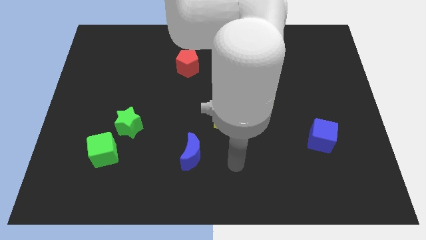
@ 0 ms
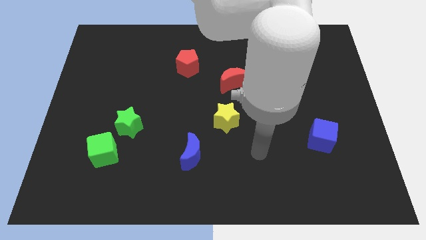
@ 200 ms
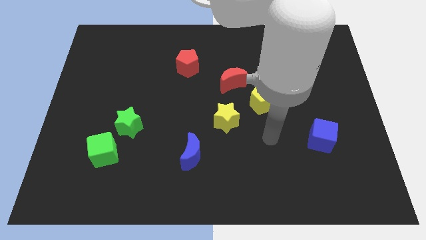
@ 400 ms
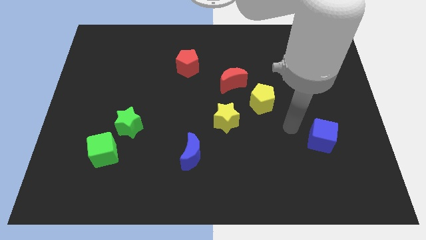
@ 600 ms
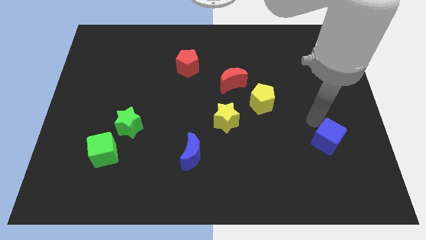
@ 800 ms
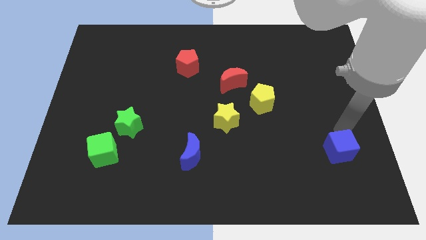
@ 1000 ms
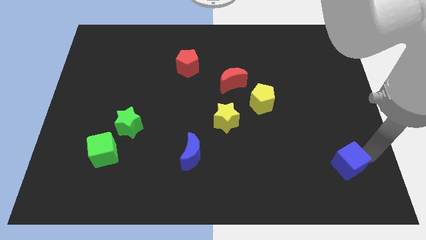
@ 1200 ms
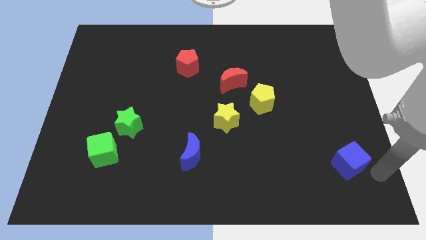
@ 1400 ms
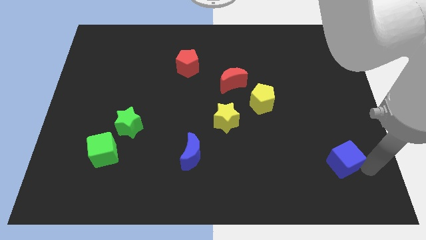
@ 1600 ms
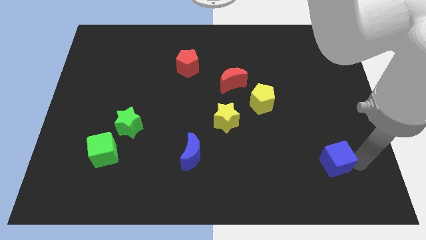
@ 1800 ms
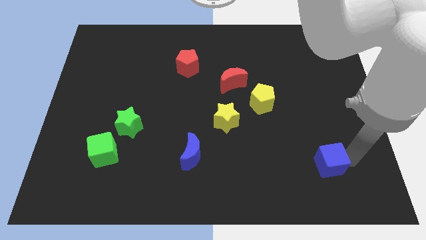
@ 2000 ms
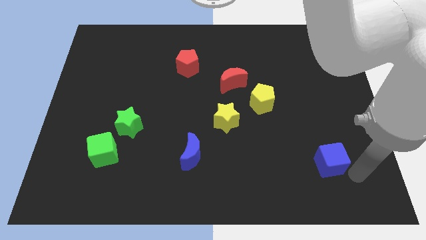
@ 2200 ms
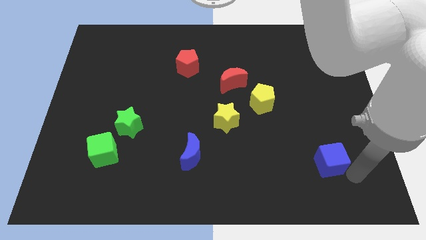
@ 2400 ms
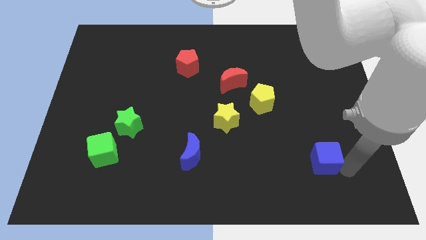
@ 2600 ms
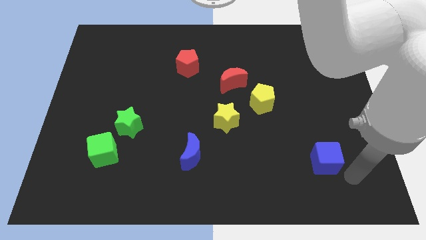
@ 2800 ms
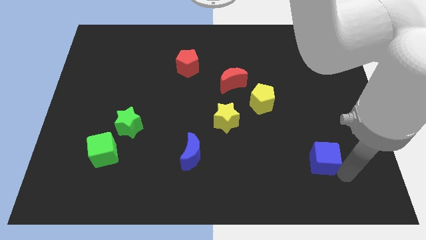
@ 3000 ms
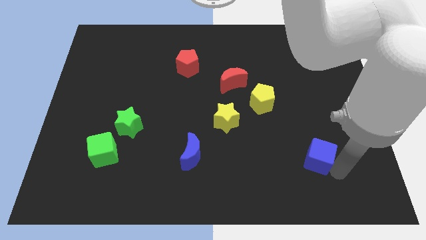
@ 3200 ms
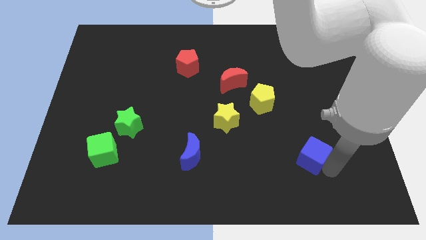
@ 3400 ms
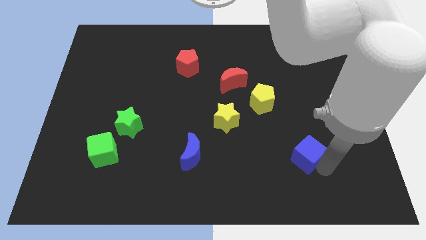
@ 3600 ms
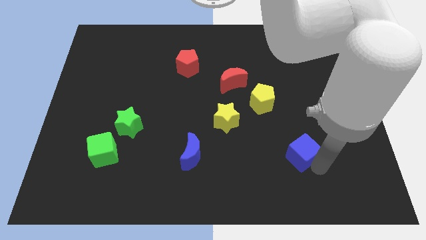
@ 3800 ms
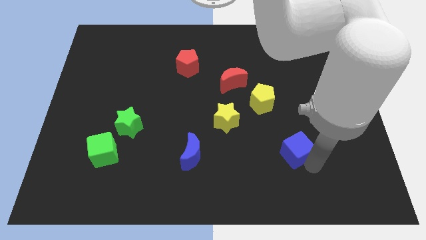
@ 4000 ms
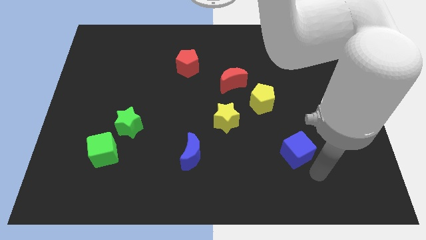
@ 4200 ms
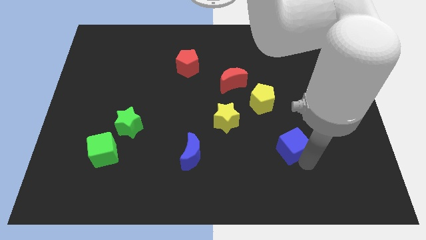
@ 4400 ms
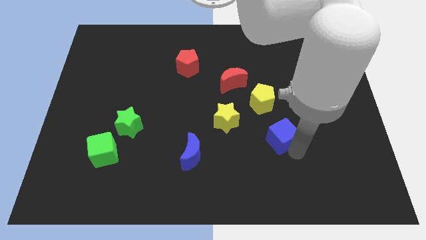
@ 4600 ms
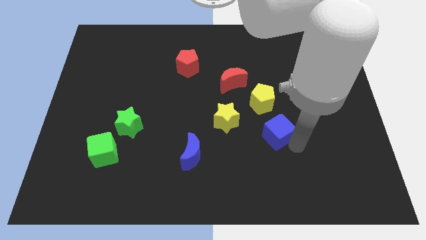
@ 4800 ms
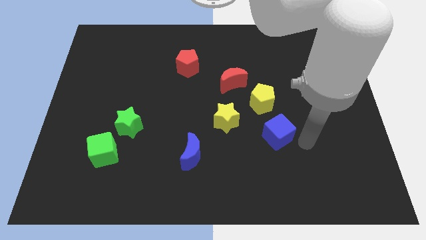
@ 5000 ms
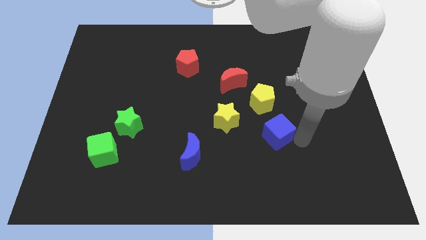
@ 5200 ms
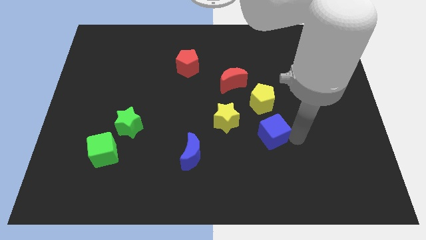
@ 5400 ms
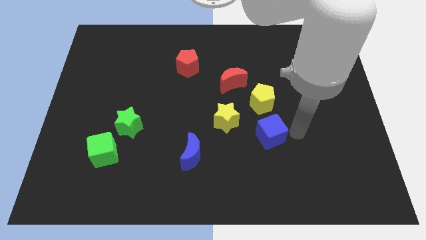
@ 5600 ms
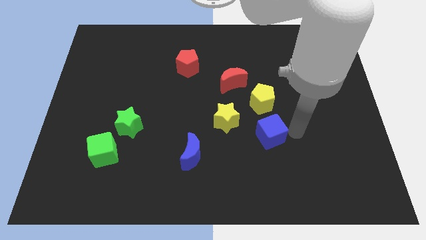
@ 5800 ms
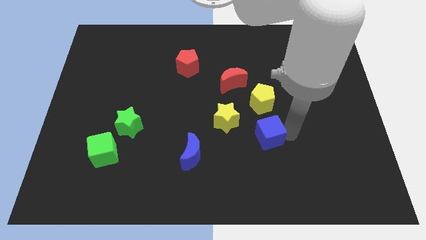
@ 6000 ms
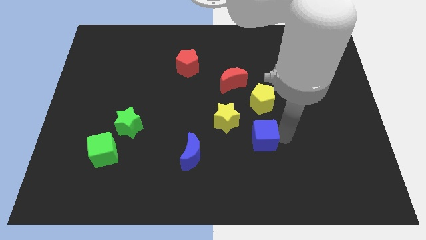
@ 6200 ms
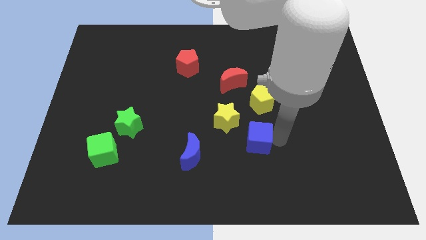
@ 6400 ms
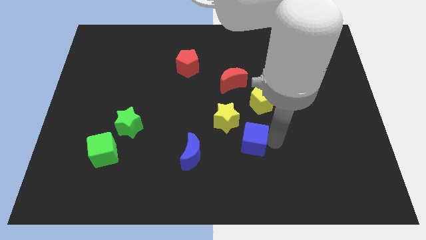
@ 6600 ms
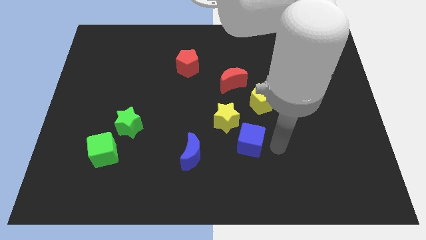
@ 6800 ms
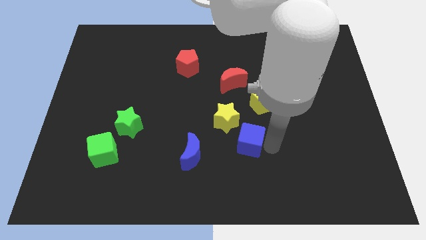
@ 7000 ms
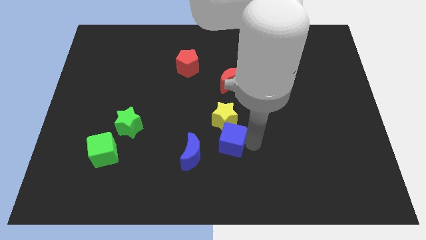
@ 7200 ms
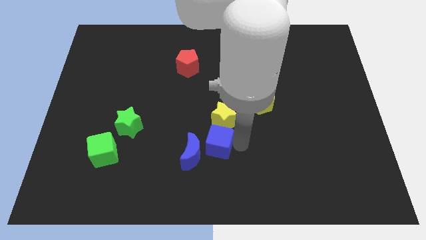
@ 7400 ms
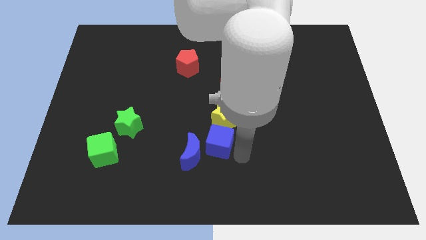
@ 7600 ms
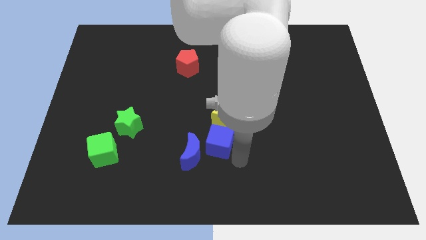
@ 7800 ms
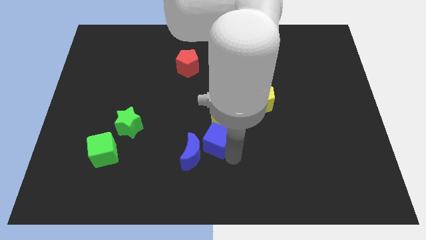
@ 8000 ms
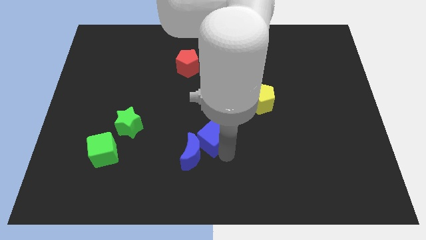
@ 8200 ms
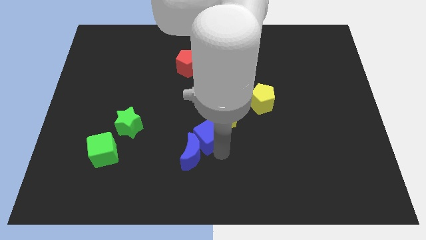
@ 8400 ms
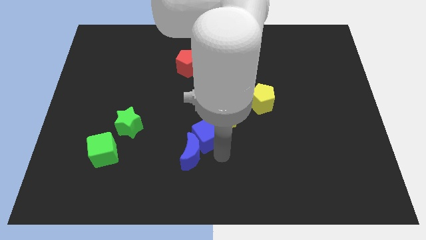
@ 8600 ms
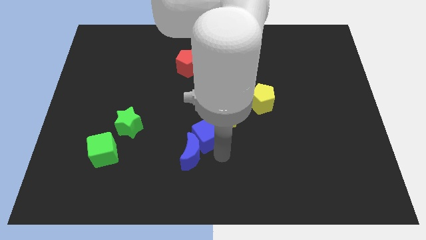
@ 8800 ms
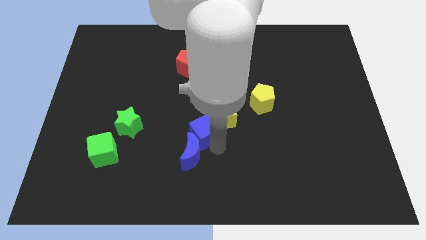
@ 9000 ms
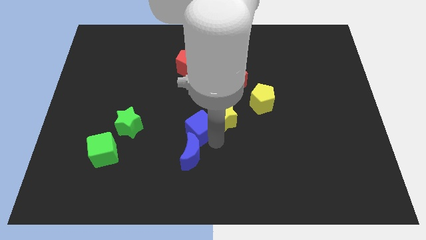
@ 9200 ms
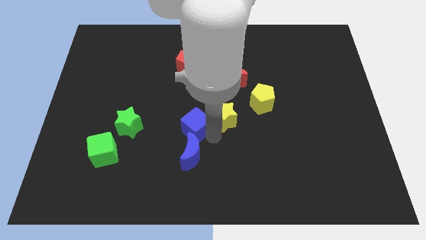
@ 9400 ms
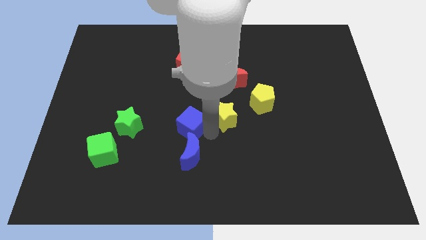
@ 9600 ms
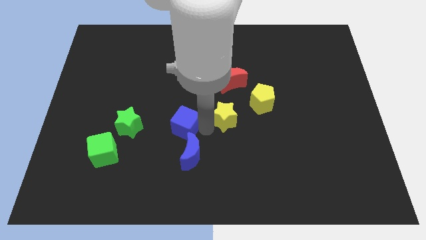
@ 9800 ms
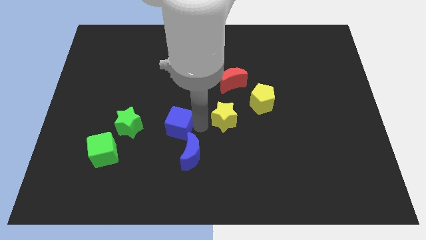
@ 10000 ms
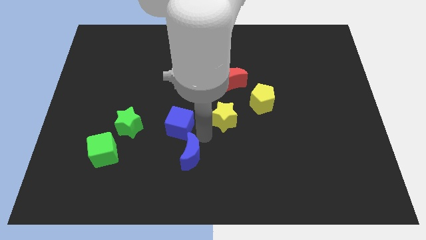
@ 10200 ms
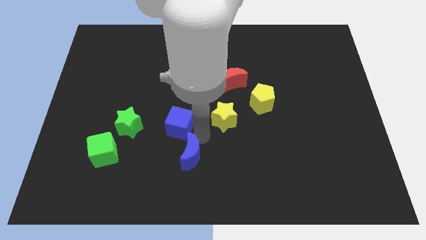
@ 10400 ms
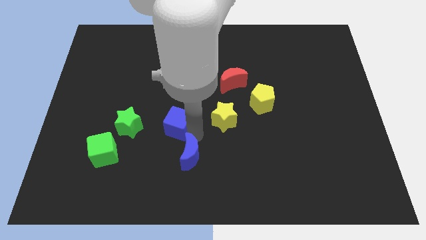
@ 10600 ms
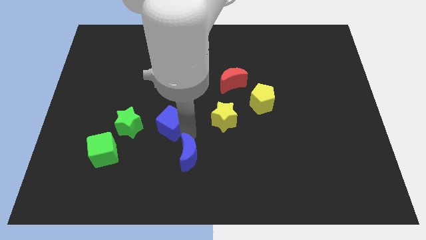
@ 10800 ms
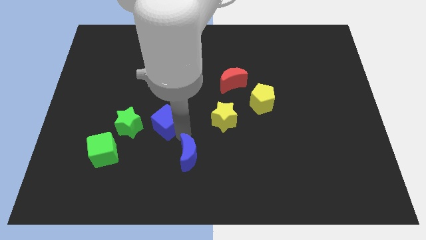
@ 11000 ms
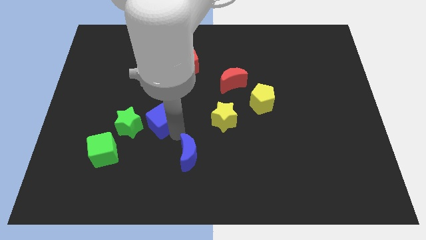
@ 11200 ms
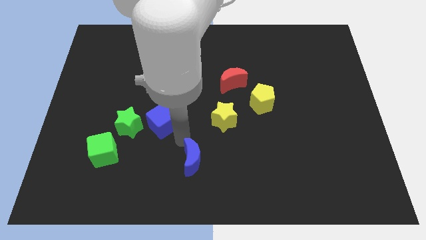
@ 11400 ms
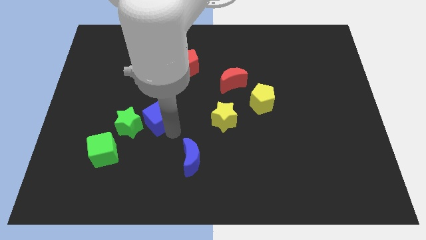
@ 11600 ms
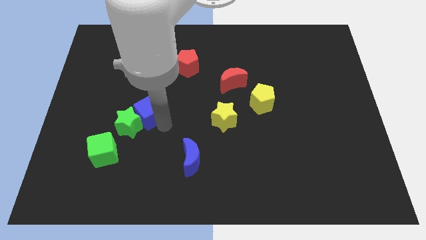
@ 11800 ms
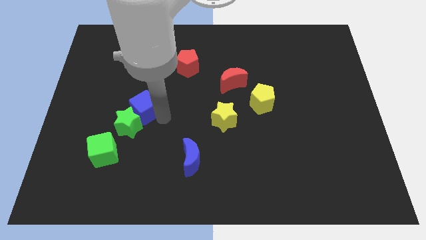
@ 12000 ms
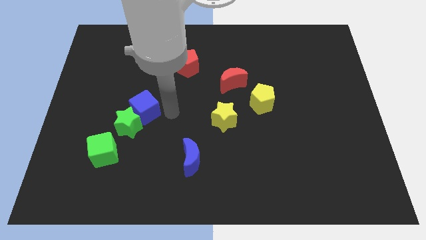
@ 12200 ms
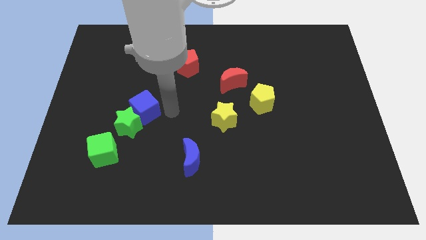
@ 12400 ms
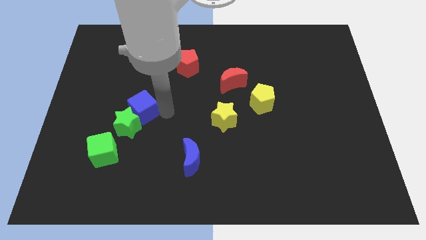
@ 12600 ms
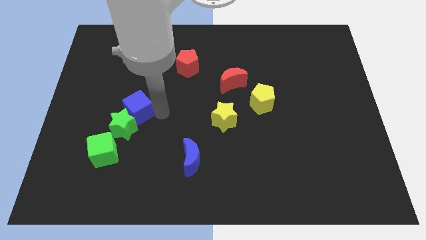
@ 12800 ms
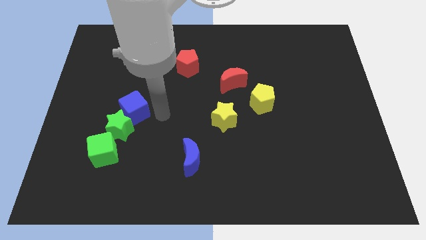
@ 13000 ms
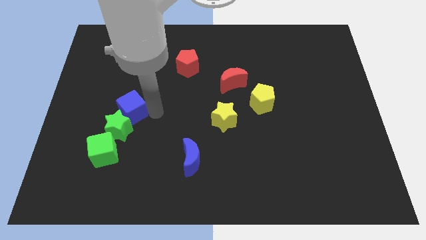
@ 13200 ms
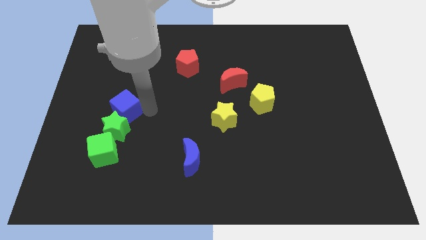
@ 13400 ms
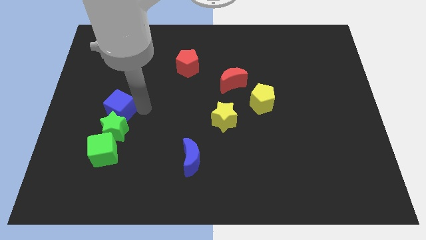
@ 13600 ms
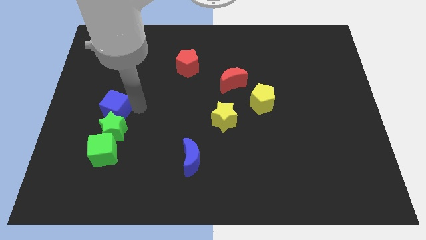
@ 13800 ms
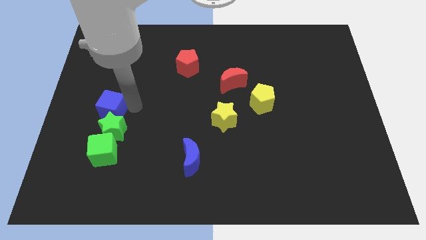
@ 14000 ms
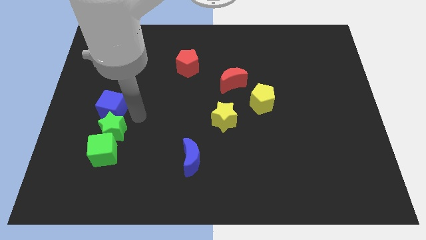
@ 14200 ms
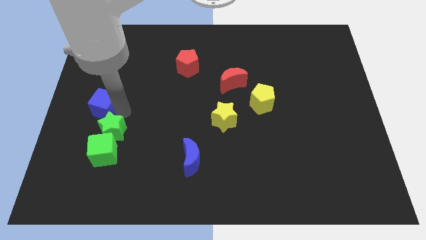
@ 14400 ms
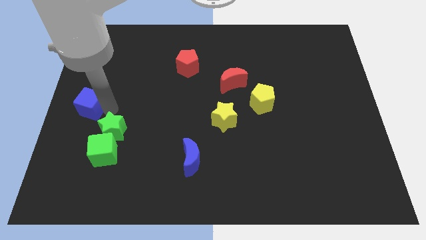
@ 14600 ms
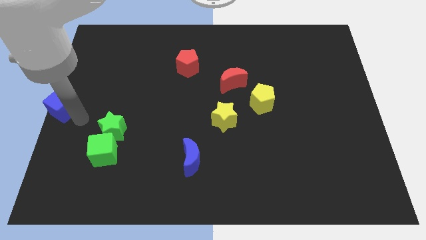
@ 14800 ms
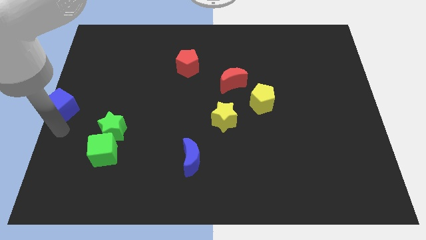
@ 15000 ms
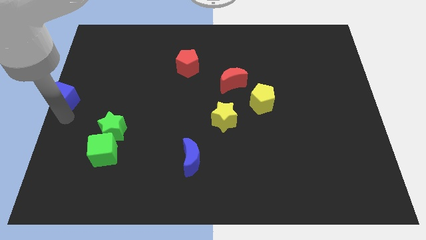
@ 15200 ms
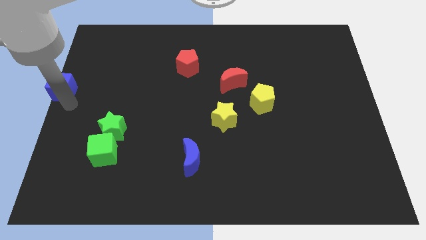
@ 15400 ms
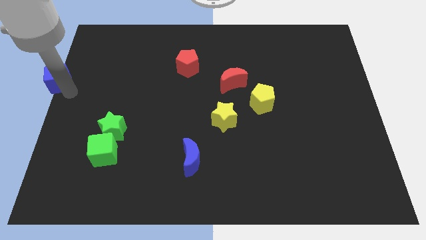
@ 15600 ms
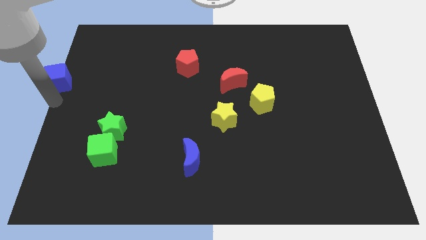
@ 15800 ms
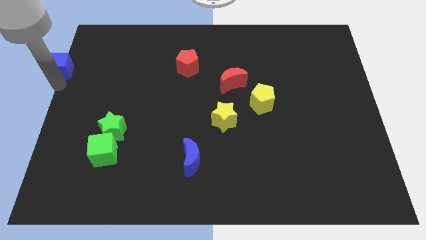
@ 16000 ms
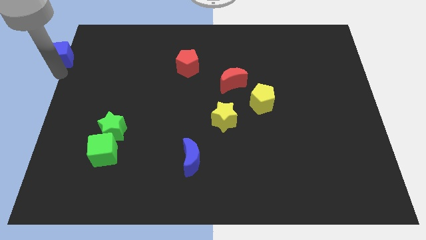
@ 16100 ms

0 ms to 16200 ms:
slide the blue cube to the top left of the board
